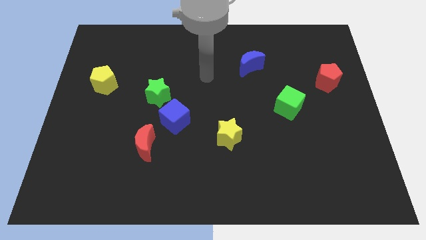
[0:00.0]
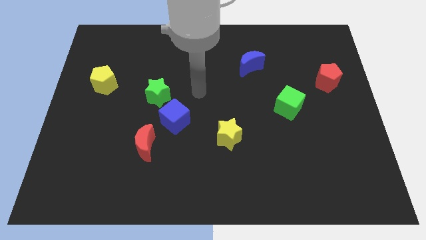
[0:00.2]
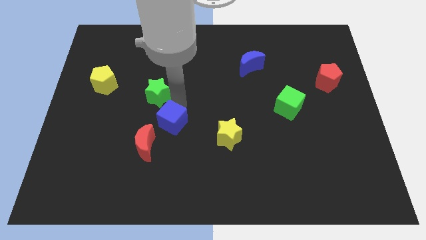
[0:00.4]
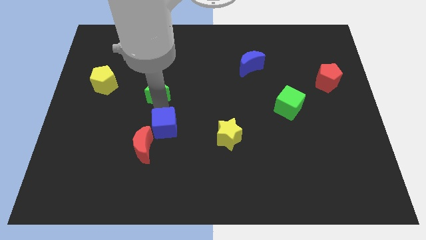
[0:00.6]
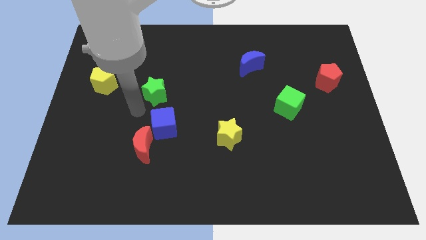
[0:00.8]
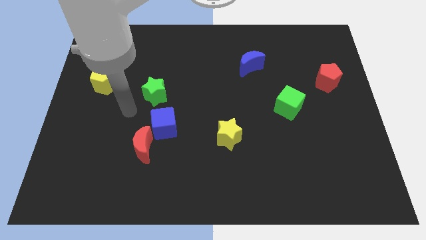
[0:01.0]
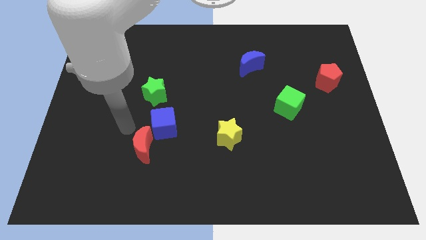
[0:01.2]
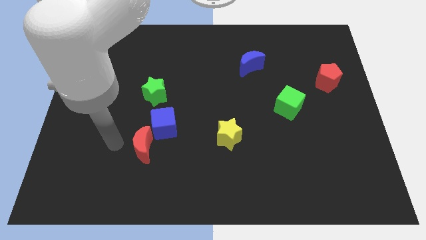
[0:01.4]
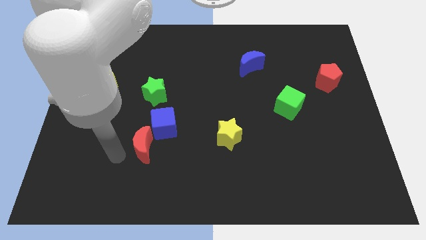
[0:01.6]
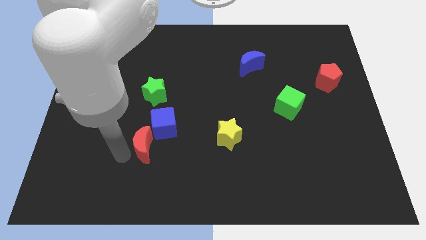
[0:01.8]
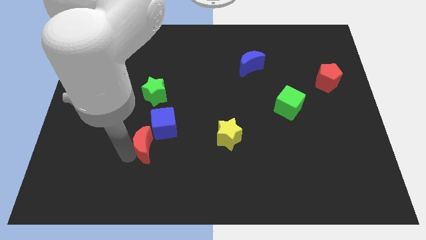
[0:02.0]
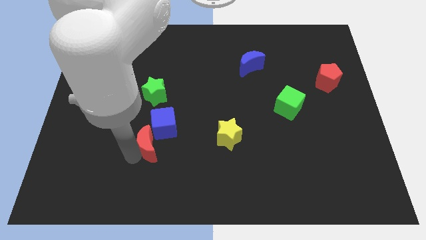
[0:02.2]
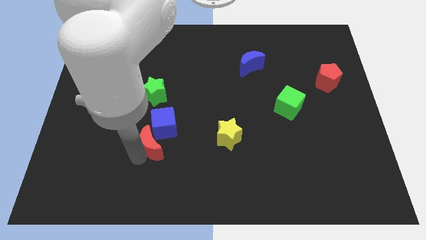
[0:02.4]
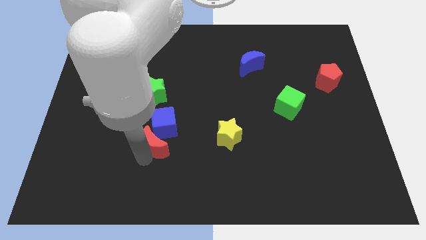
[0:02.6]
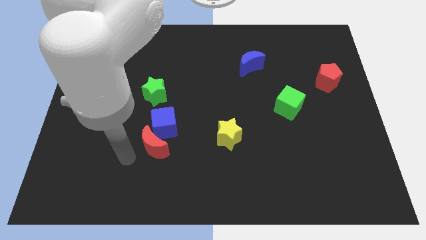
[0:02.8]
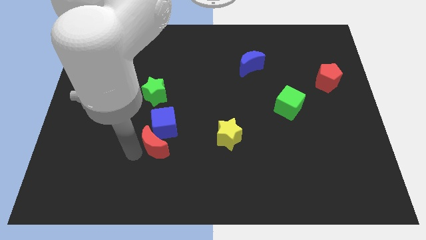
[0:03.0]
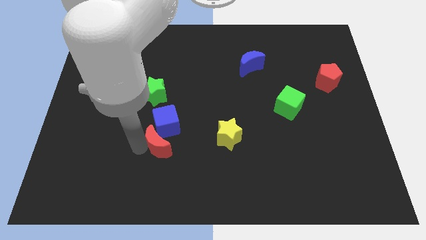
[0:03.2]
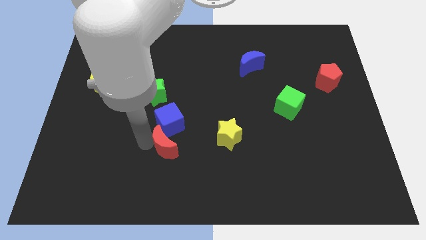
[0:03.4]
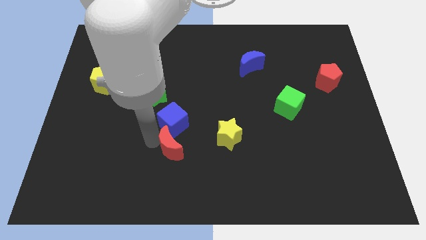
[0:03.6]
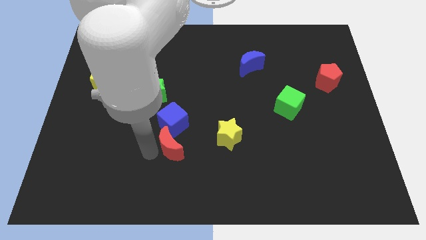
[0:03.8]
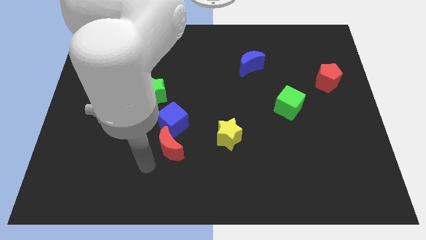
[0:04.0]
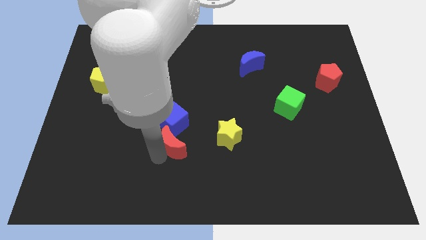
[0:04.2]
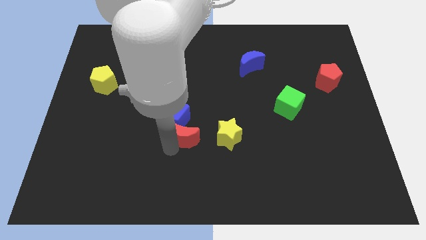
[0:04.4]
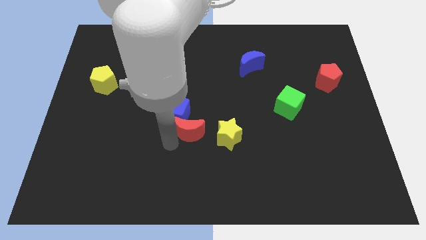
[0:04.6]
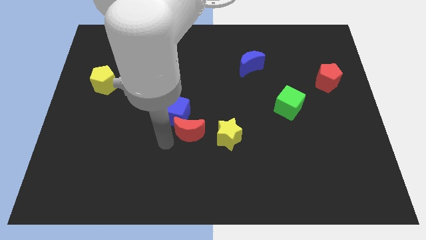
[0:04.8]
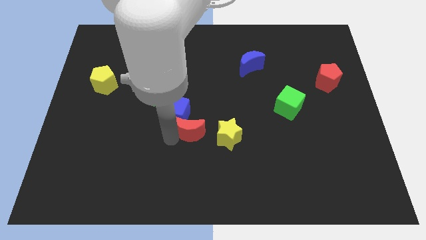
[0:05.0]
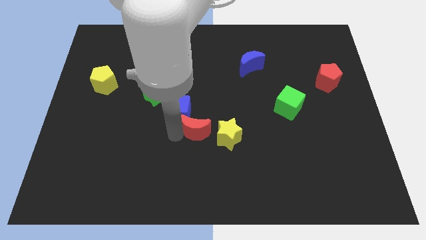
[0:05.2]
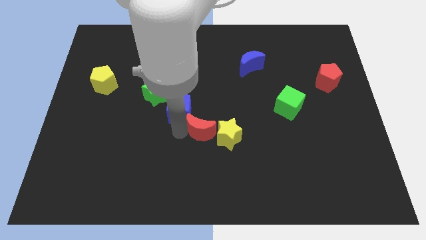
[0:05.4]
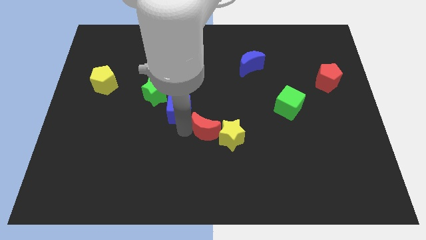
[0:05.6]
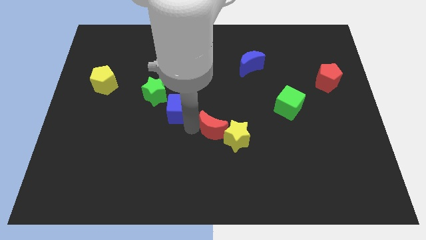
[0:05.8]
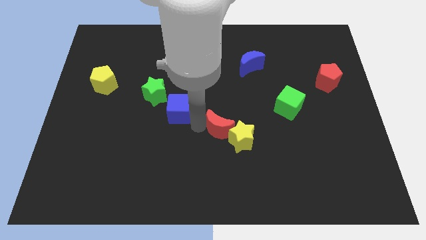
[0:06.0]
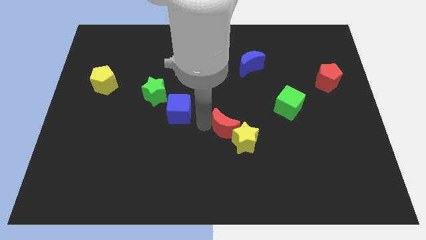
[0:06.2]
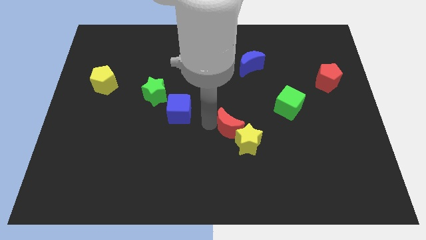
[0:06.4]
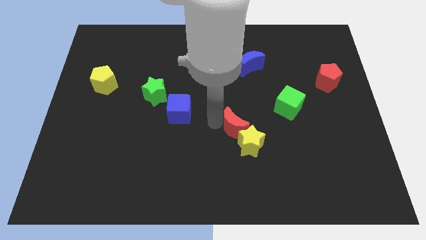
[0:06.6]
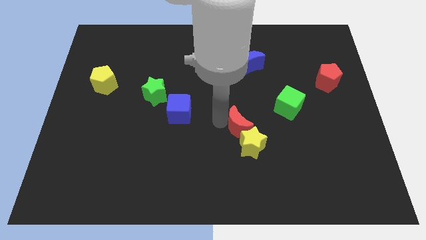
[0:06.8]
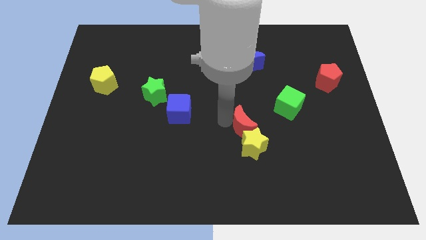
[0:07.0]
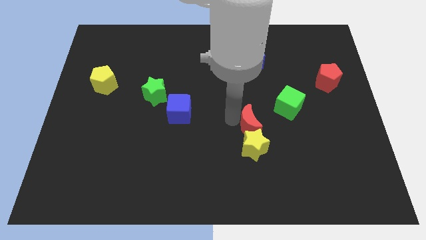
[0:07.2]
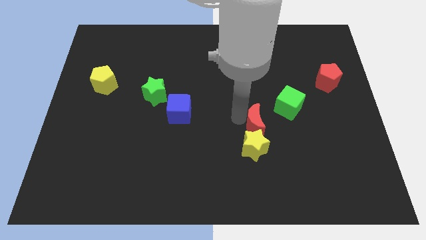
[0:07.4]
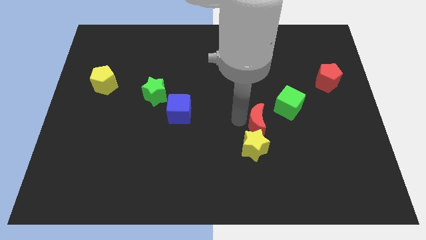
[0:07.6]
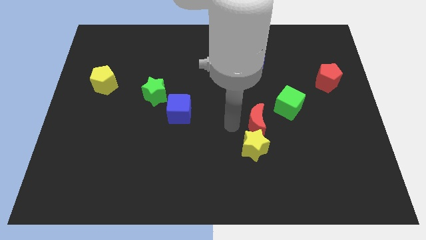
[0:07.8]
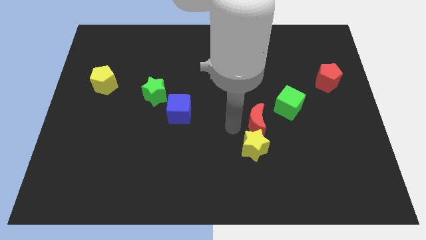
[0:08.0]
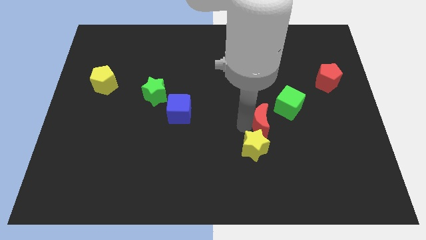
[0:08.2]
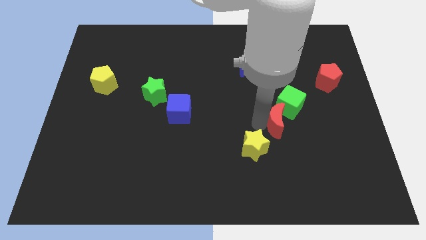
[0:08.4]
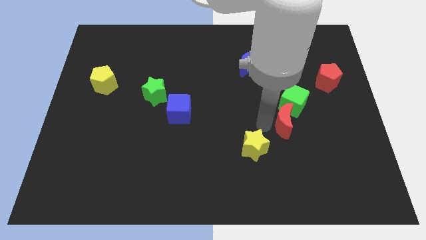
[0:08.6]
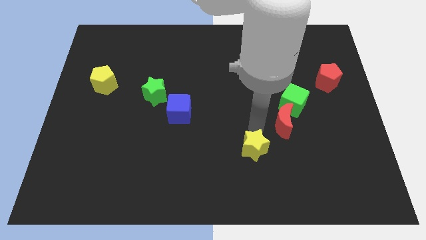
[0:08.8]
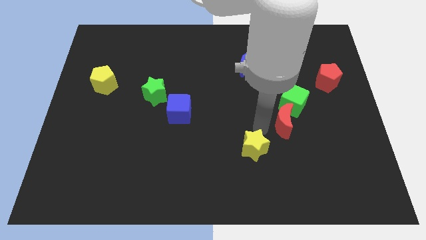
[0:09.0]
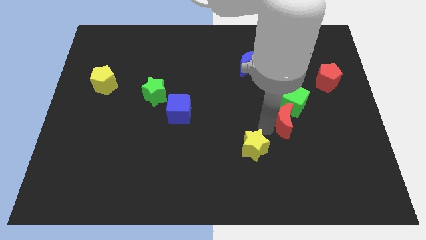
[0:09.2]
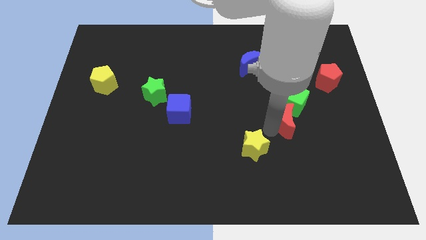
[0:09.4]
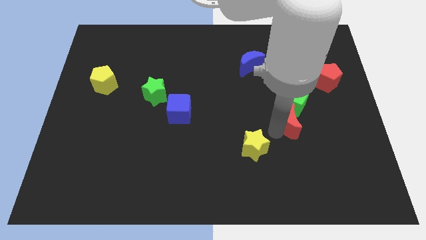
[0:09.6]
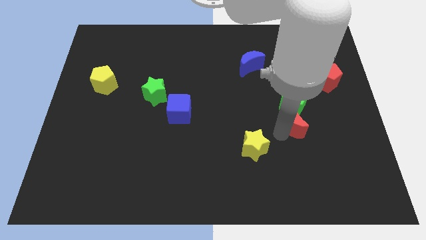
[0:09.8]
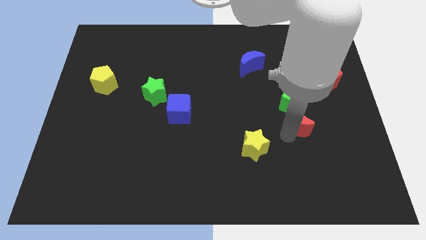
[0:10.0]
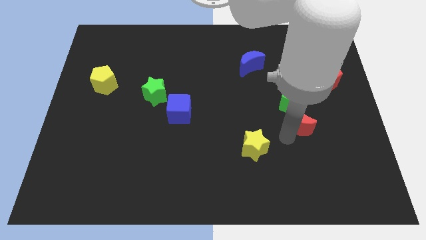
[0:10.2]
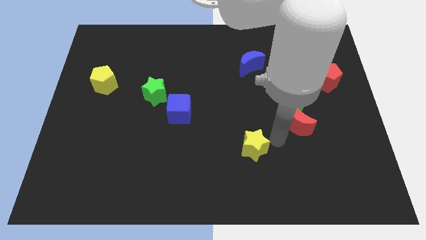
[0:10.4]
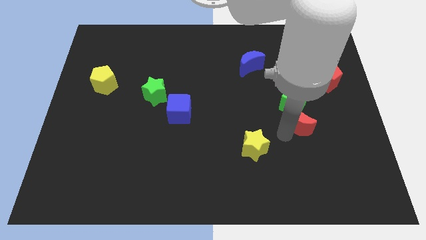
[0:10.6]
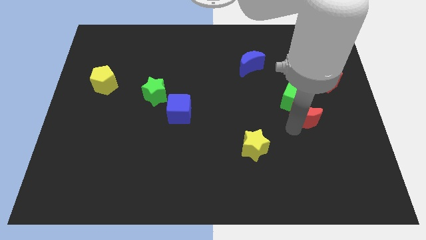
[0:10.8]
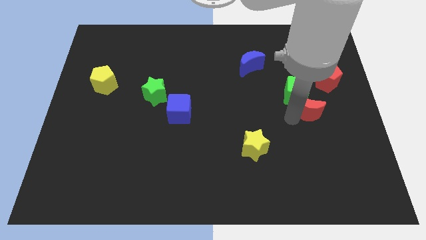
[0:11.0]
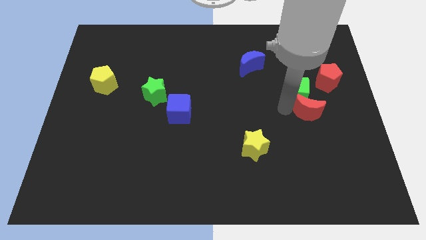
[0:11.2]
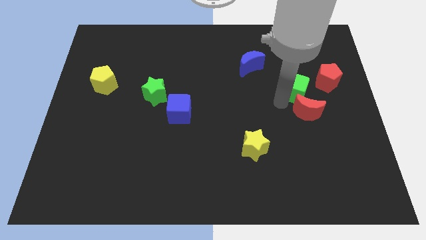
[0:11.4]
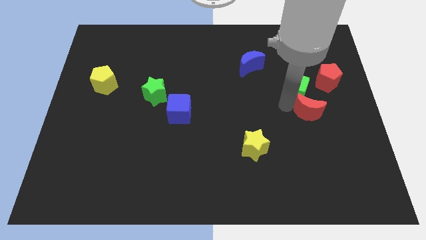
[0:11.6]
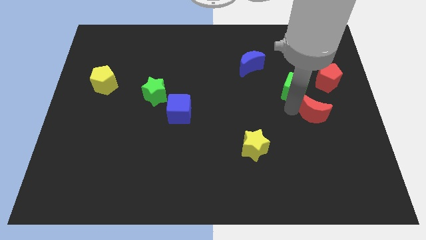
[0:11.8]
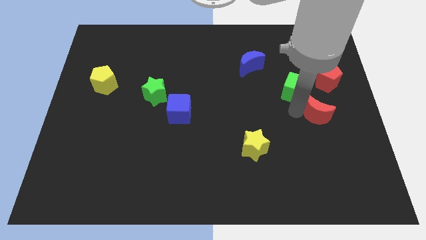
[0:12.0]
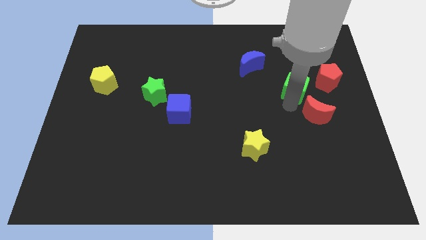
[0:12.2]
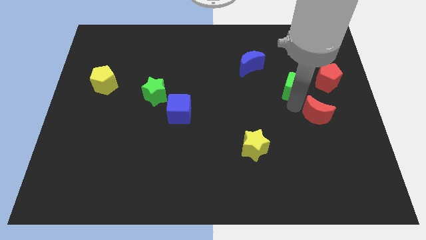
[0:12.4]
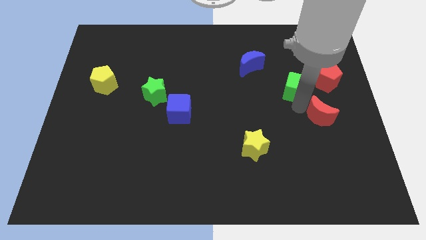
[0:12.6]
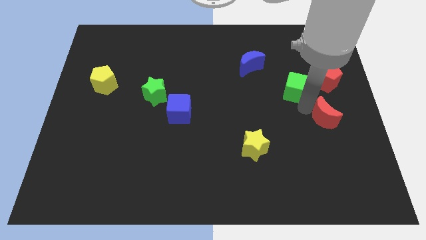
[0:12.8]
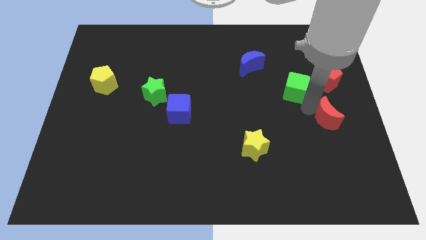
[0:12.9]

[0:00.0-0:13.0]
push the red moon to the right side

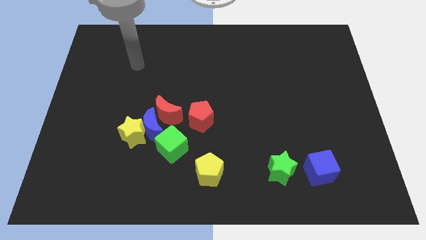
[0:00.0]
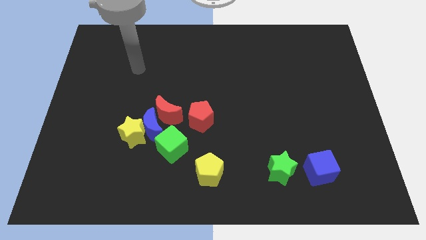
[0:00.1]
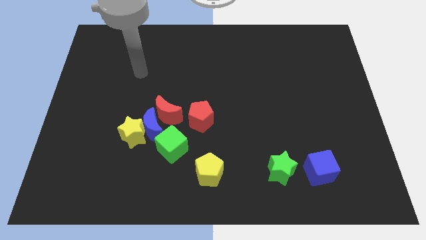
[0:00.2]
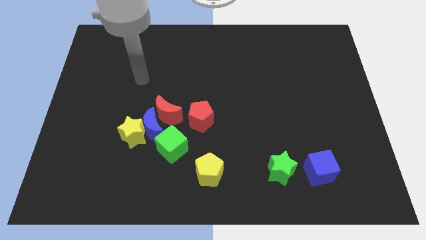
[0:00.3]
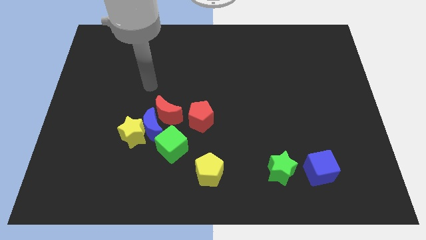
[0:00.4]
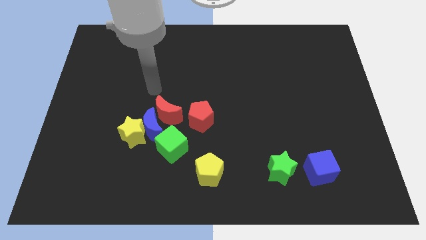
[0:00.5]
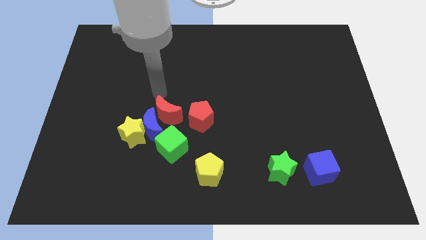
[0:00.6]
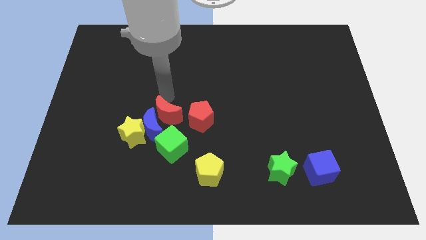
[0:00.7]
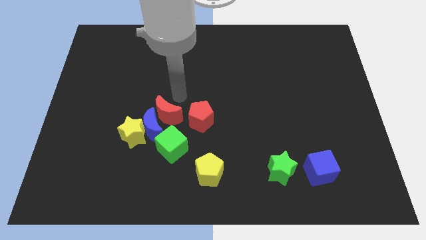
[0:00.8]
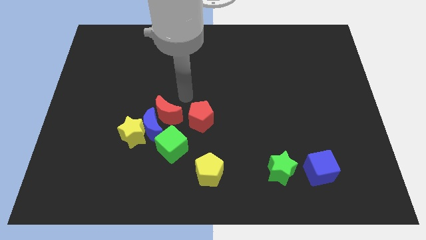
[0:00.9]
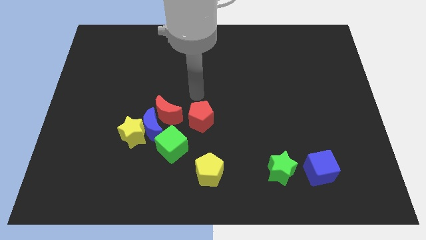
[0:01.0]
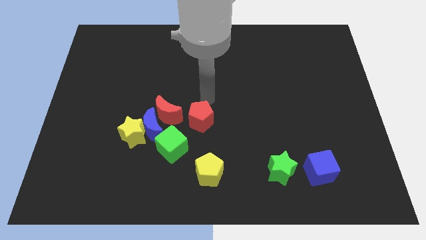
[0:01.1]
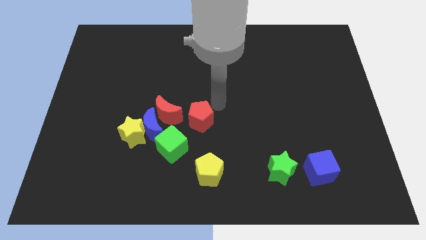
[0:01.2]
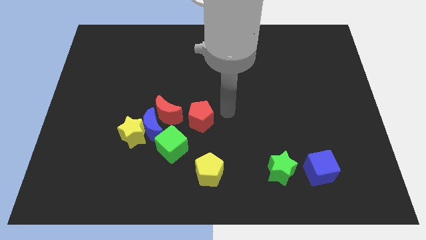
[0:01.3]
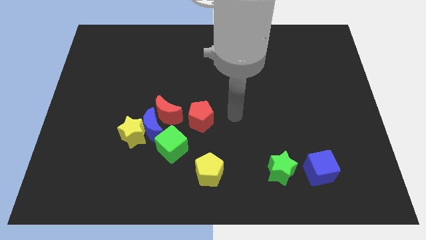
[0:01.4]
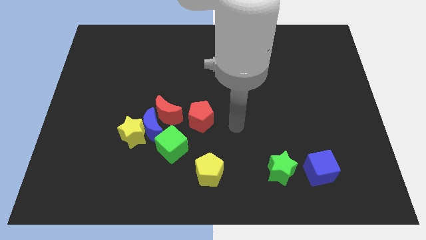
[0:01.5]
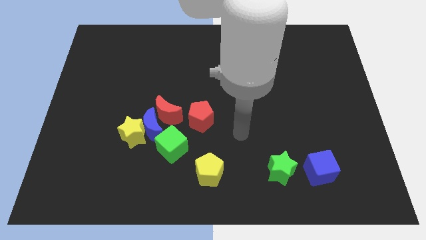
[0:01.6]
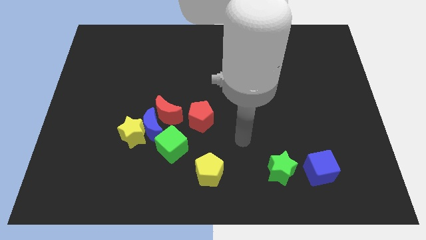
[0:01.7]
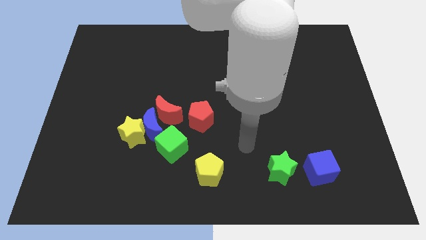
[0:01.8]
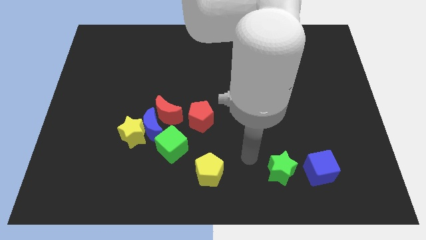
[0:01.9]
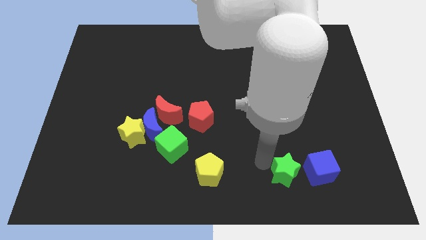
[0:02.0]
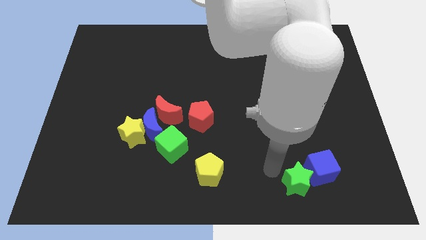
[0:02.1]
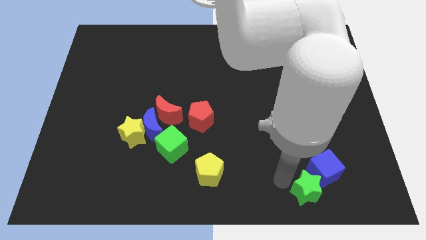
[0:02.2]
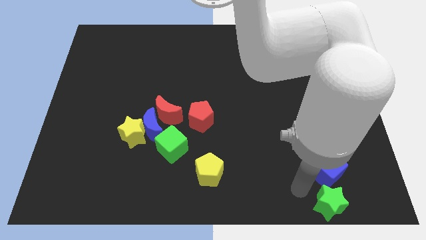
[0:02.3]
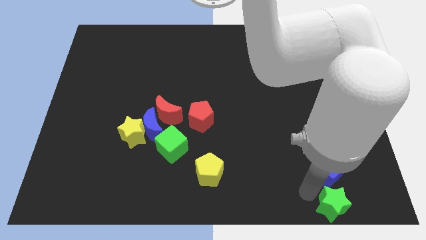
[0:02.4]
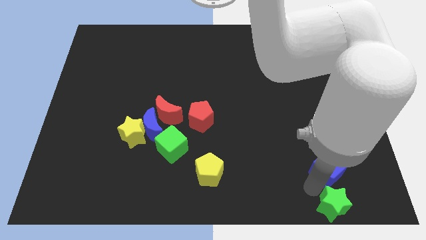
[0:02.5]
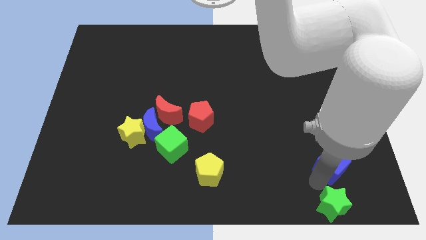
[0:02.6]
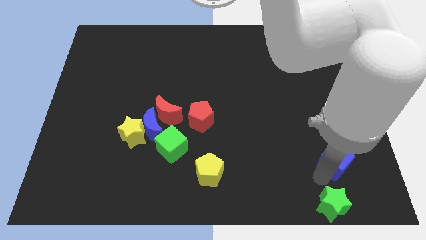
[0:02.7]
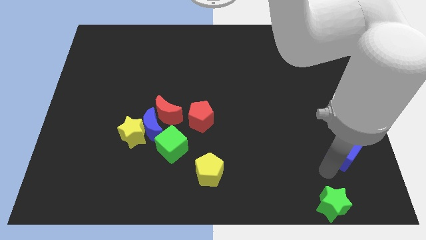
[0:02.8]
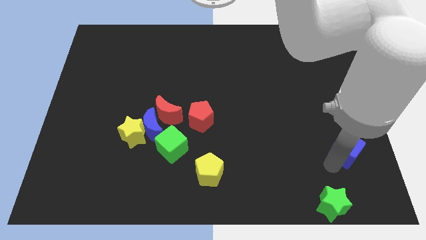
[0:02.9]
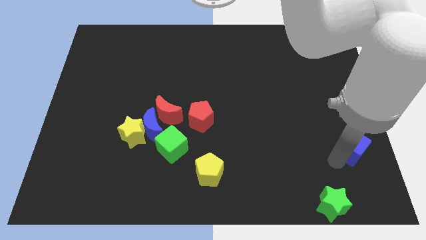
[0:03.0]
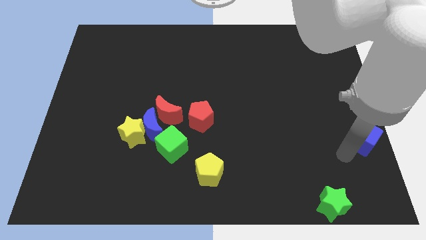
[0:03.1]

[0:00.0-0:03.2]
put the blue cube to the right side of the board
